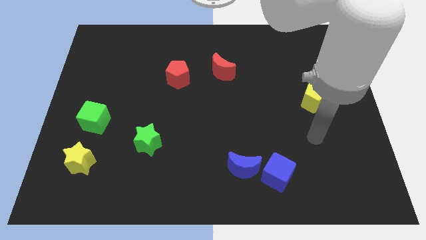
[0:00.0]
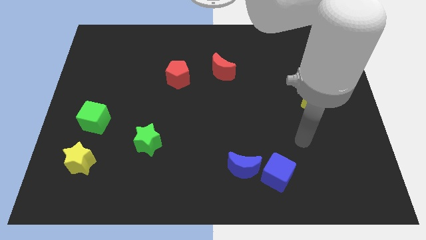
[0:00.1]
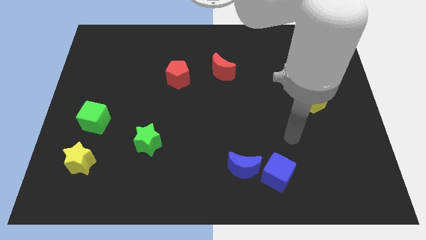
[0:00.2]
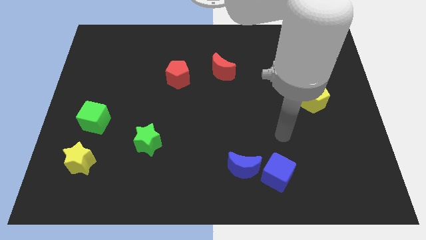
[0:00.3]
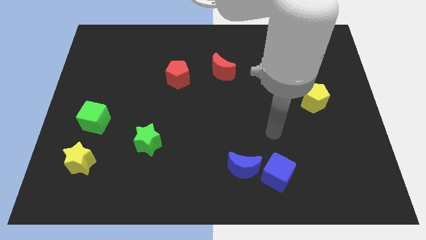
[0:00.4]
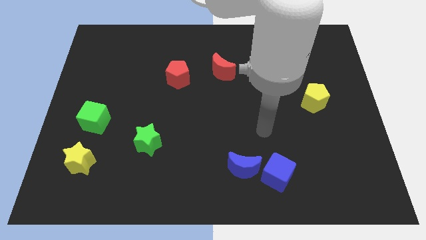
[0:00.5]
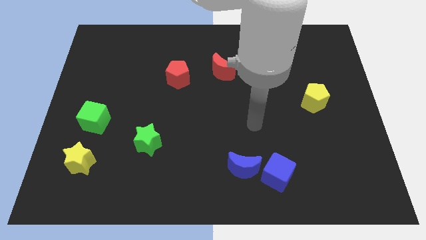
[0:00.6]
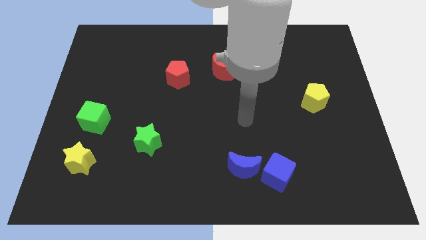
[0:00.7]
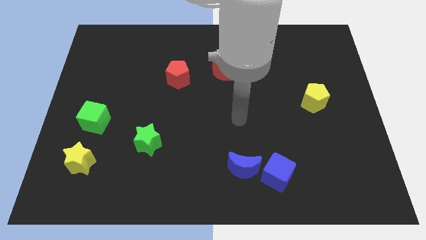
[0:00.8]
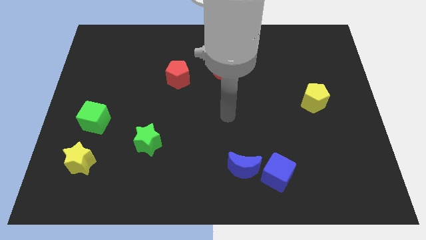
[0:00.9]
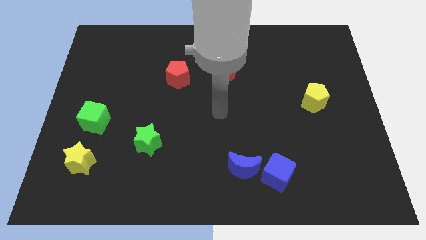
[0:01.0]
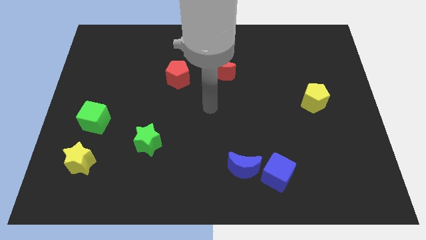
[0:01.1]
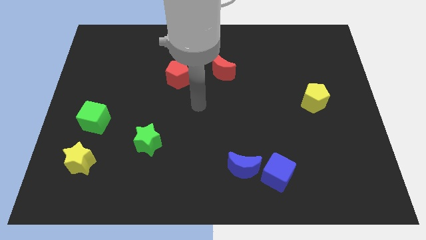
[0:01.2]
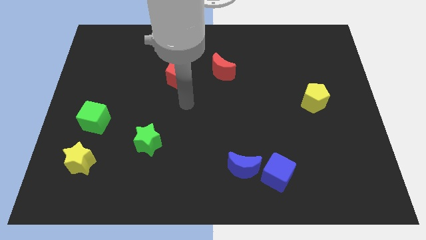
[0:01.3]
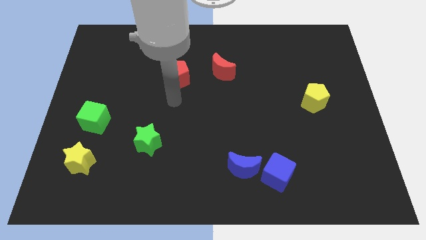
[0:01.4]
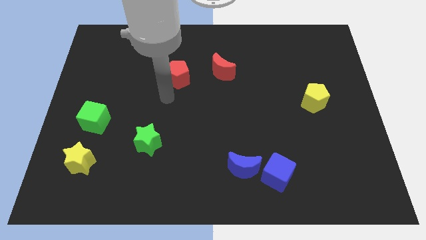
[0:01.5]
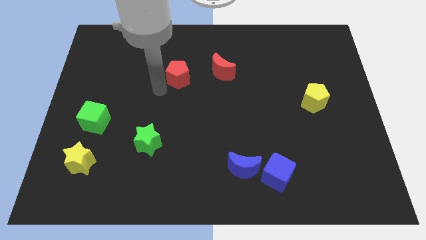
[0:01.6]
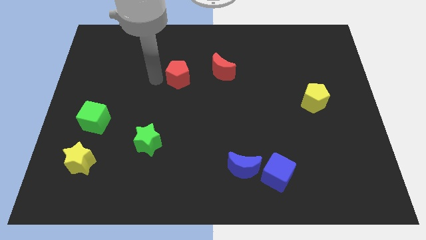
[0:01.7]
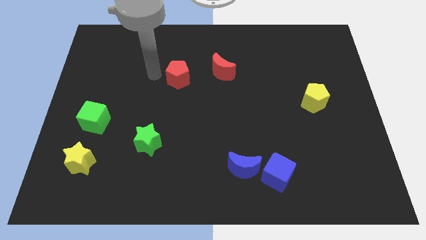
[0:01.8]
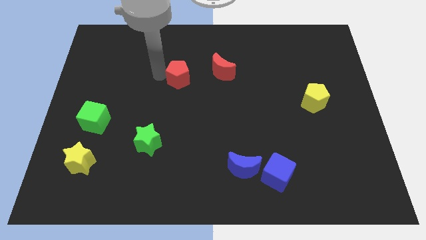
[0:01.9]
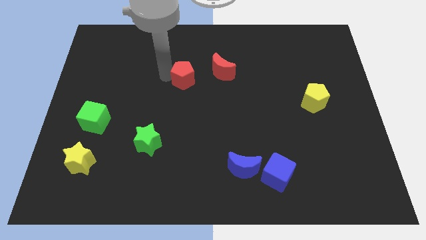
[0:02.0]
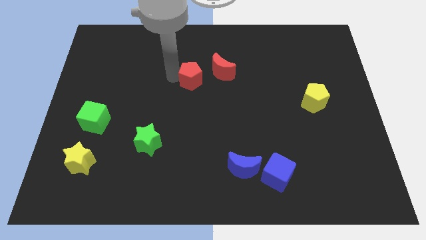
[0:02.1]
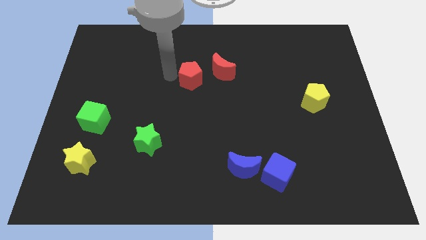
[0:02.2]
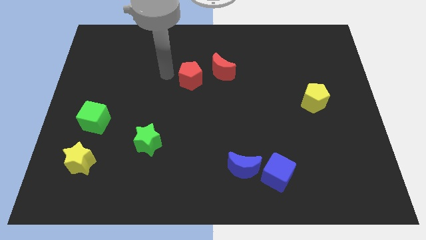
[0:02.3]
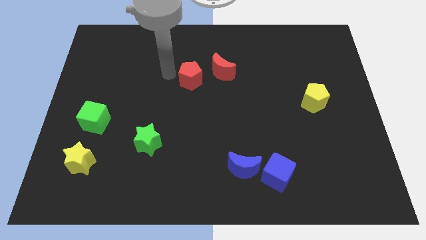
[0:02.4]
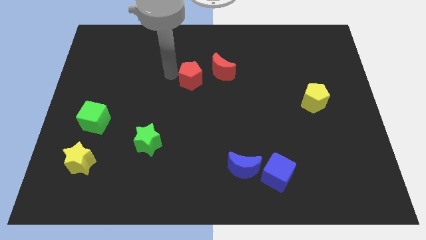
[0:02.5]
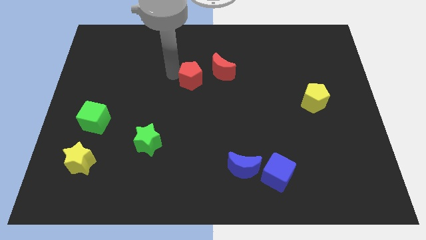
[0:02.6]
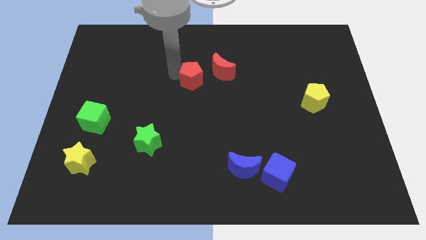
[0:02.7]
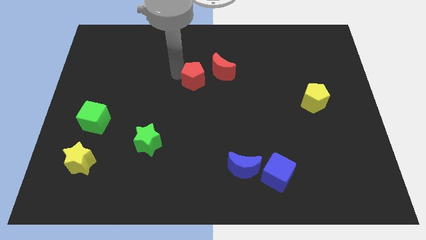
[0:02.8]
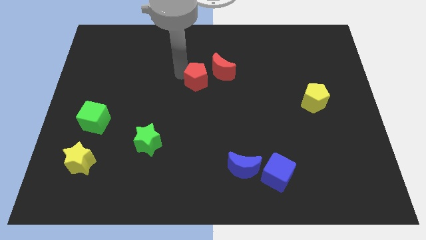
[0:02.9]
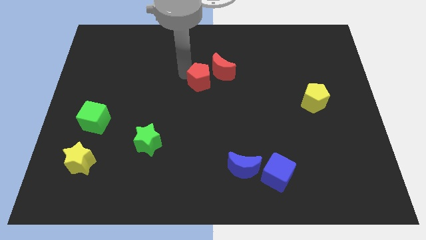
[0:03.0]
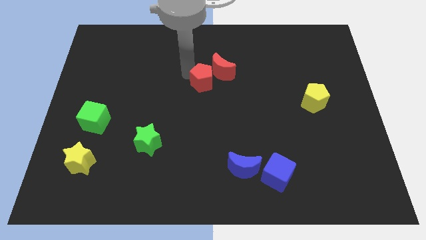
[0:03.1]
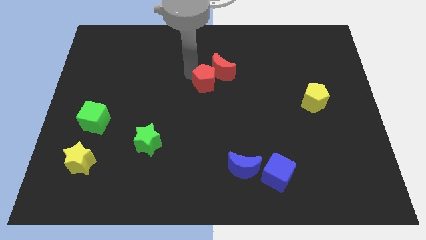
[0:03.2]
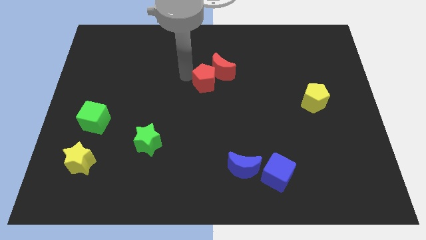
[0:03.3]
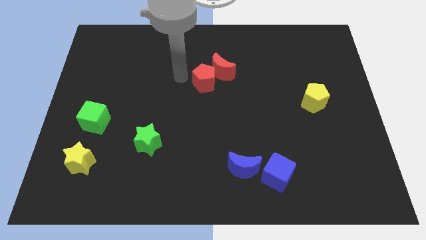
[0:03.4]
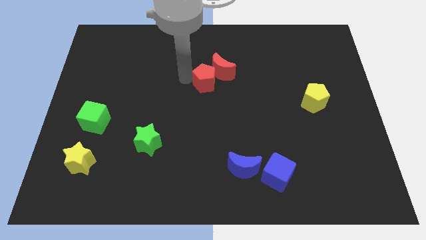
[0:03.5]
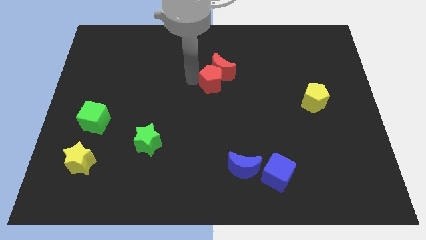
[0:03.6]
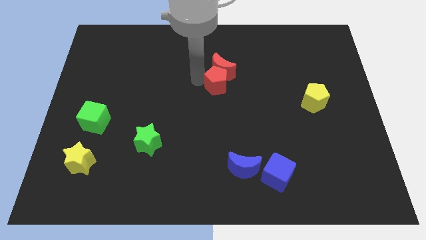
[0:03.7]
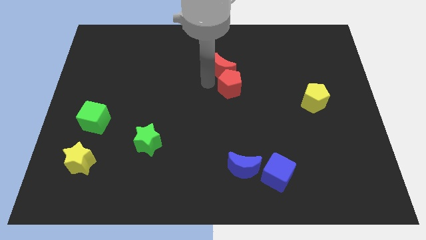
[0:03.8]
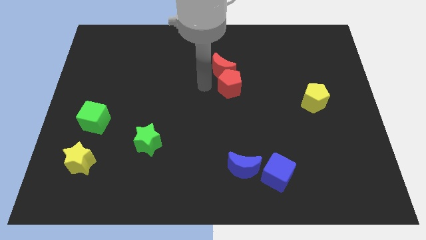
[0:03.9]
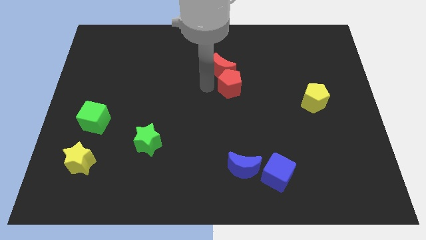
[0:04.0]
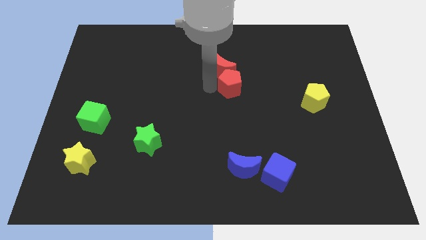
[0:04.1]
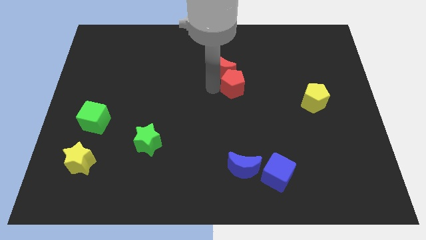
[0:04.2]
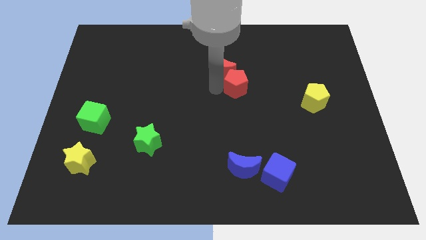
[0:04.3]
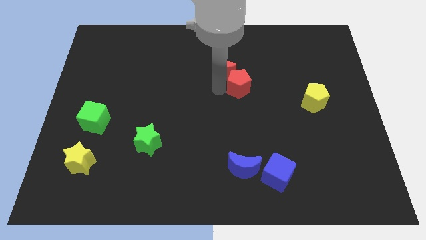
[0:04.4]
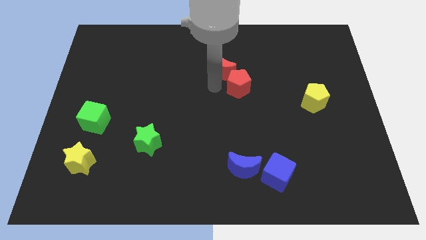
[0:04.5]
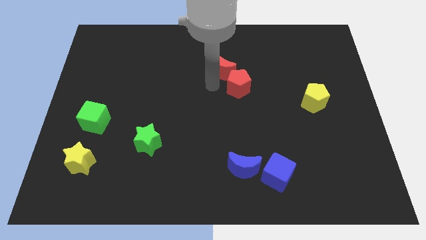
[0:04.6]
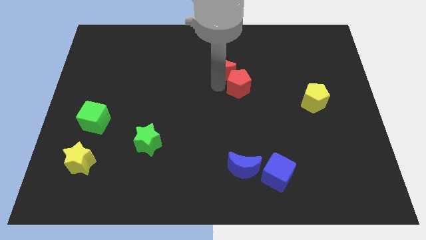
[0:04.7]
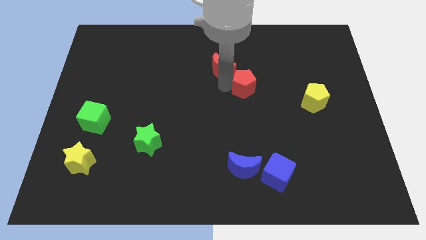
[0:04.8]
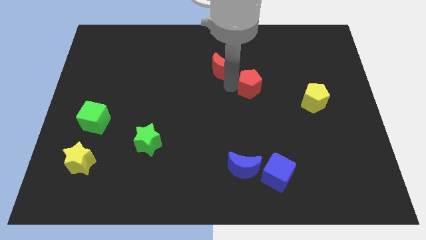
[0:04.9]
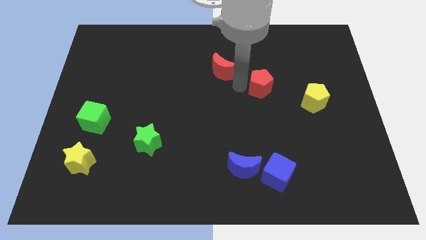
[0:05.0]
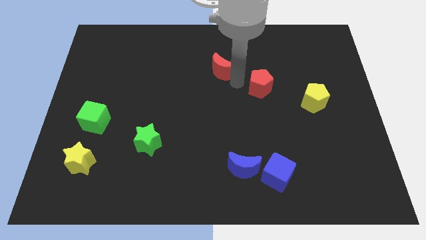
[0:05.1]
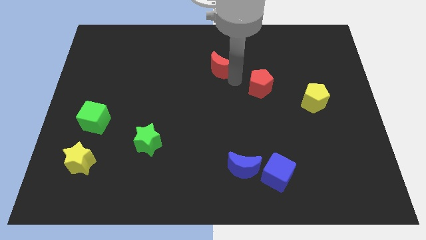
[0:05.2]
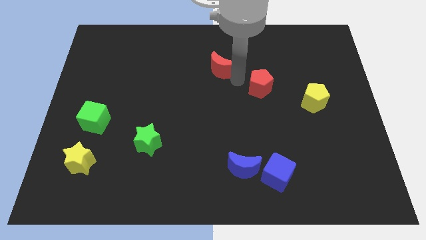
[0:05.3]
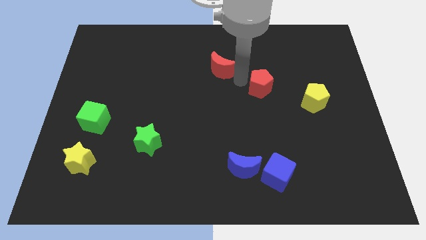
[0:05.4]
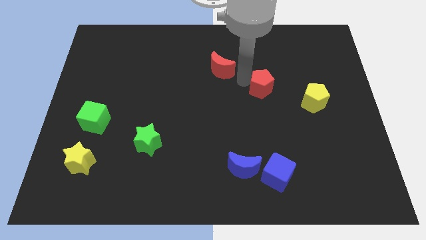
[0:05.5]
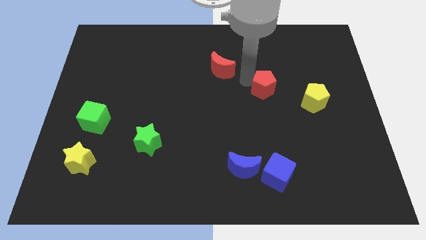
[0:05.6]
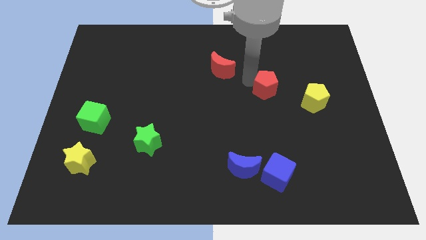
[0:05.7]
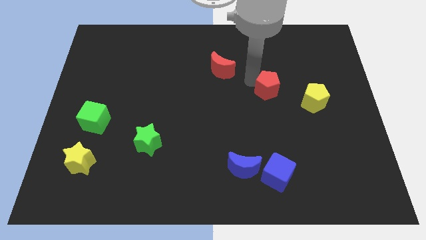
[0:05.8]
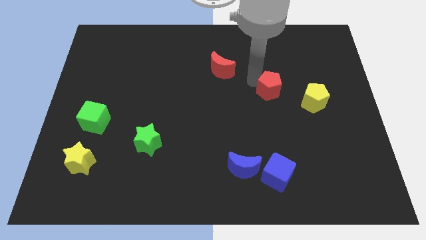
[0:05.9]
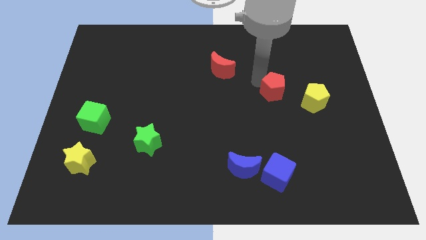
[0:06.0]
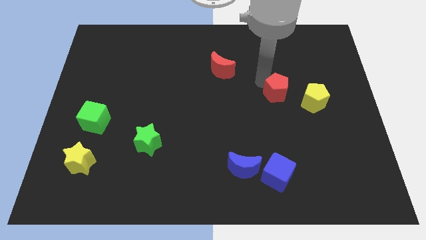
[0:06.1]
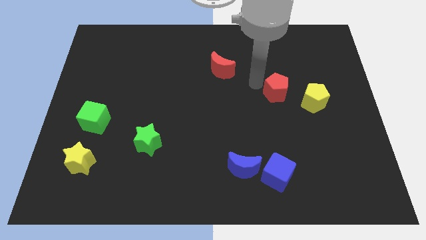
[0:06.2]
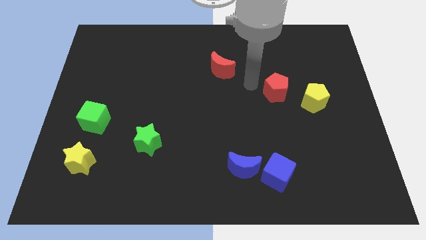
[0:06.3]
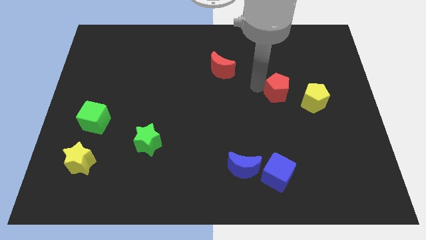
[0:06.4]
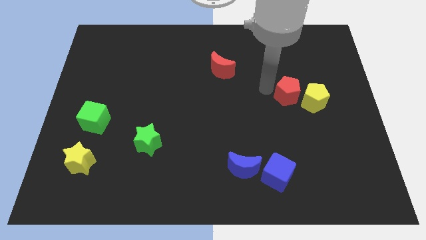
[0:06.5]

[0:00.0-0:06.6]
put the red pentagon towards the yellow pentagon

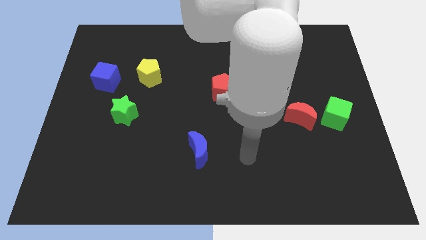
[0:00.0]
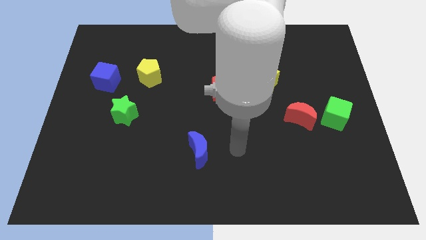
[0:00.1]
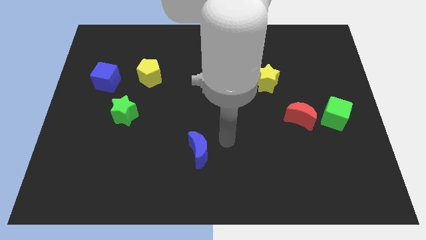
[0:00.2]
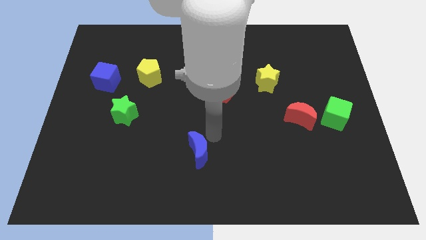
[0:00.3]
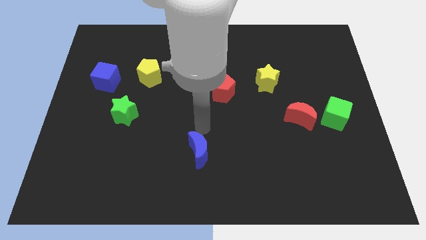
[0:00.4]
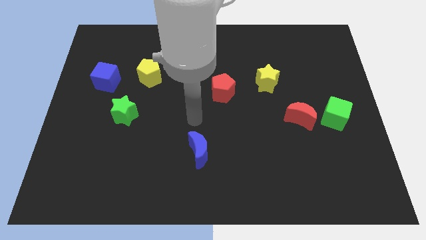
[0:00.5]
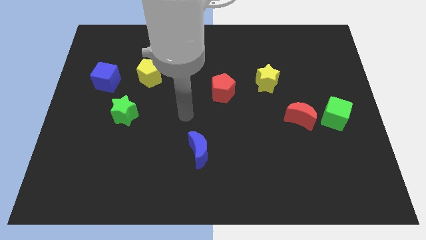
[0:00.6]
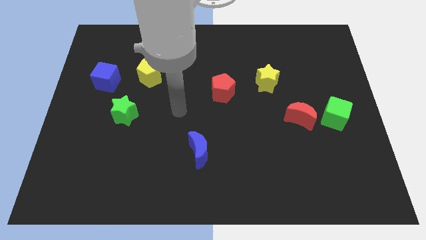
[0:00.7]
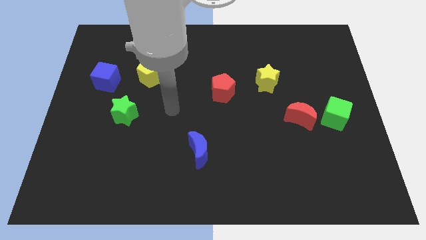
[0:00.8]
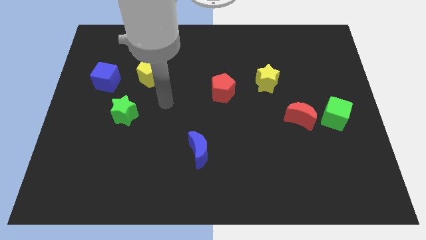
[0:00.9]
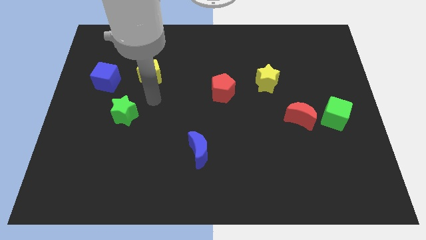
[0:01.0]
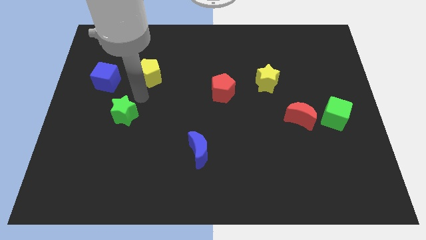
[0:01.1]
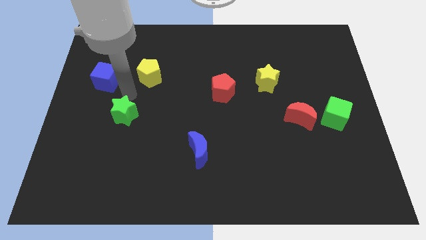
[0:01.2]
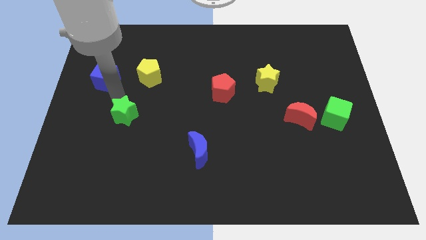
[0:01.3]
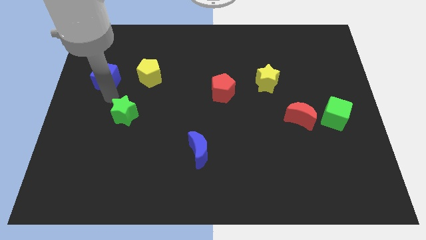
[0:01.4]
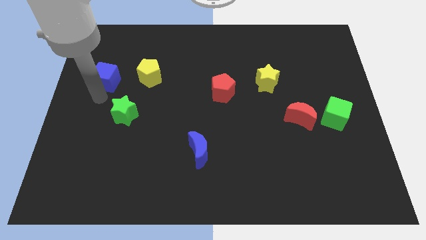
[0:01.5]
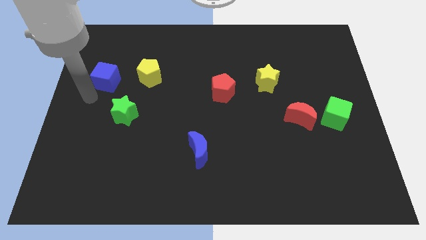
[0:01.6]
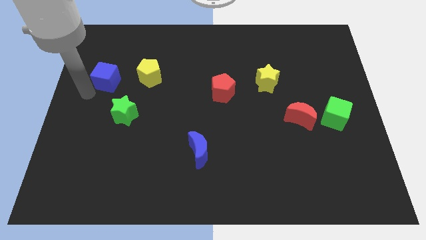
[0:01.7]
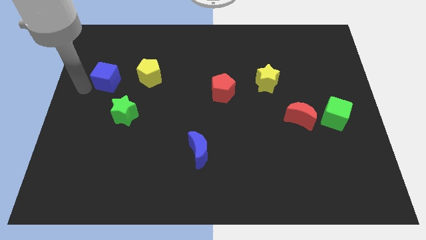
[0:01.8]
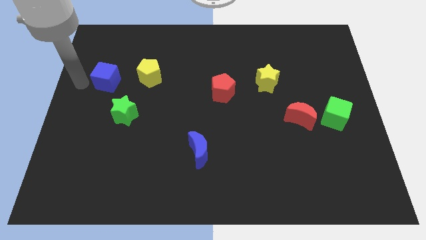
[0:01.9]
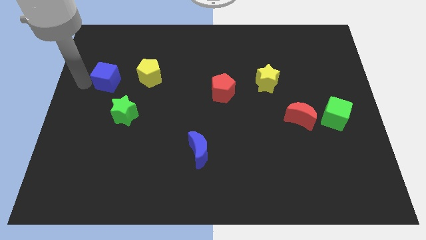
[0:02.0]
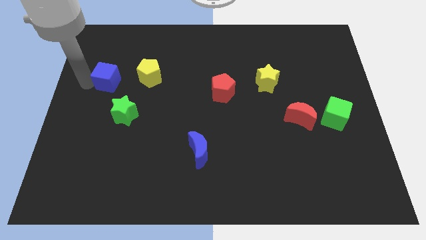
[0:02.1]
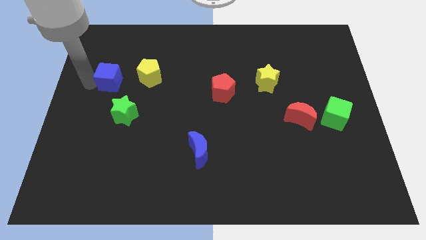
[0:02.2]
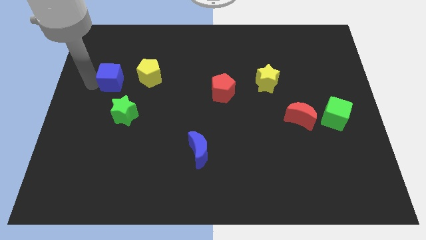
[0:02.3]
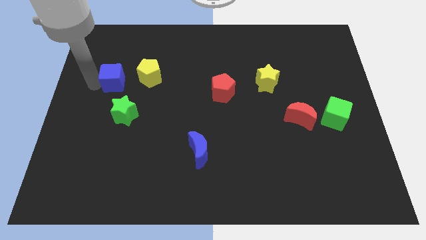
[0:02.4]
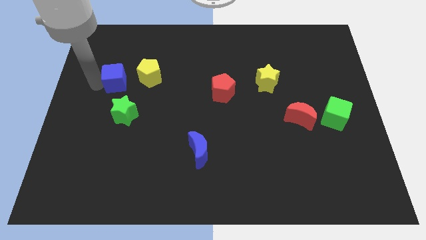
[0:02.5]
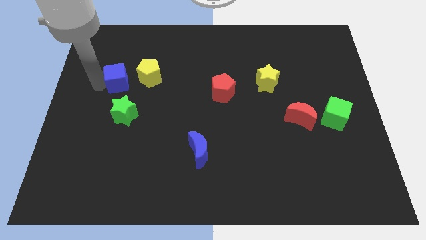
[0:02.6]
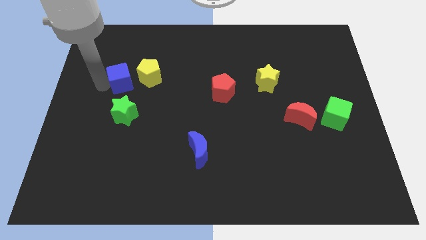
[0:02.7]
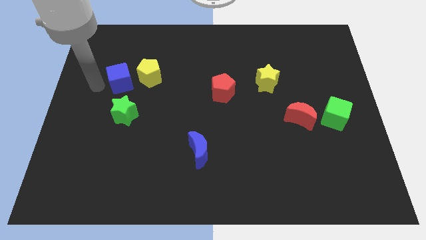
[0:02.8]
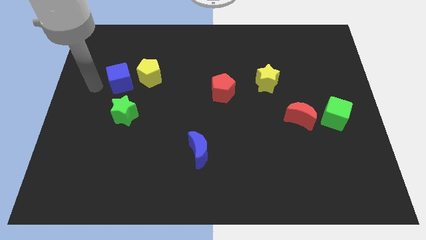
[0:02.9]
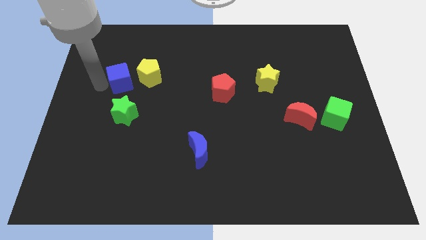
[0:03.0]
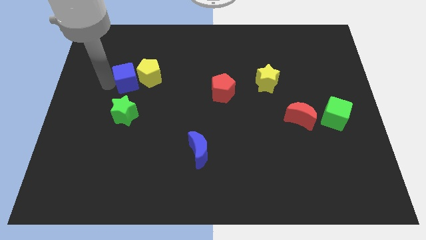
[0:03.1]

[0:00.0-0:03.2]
put the blue cube next to the yellow pentagon
